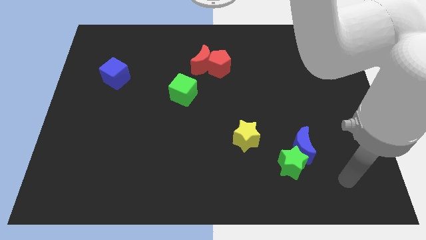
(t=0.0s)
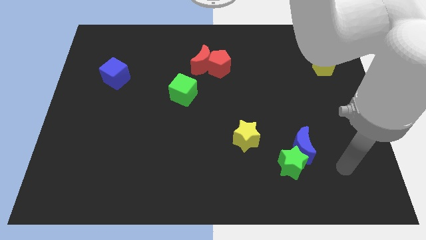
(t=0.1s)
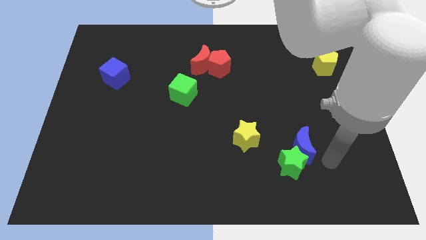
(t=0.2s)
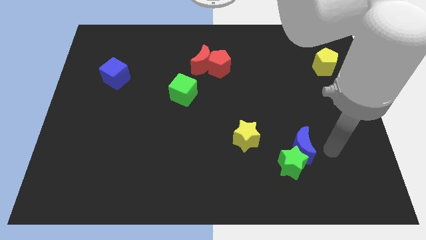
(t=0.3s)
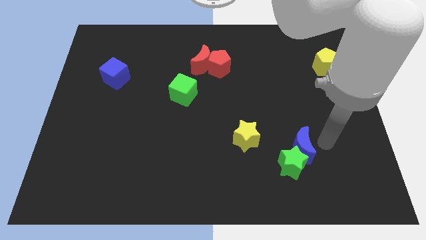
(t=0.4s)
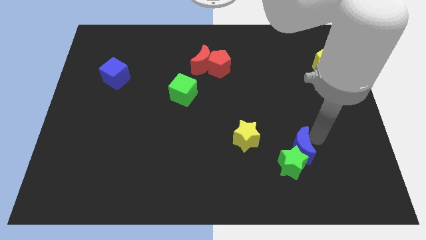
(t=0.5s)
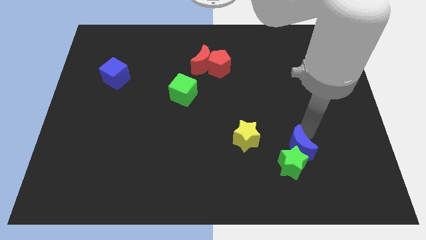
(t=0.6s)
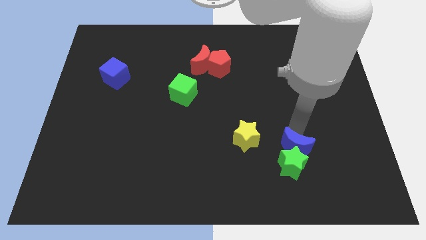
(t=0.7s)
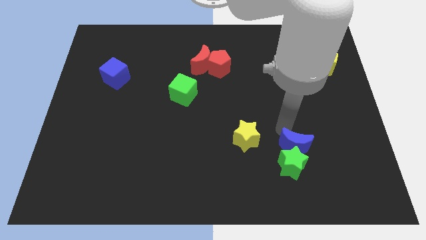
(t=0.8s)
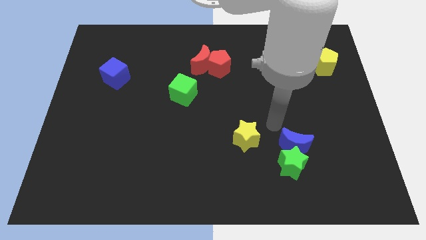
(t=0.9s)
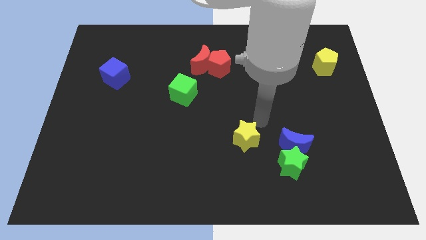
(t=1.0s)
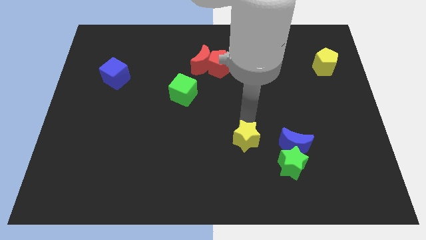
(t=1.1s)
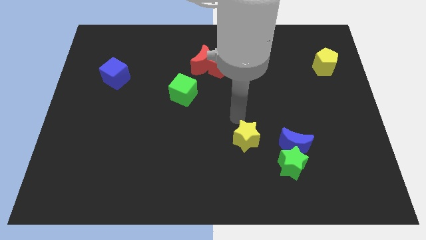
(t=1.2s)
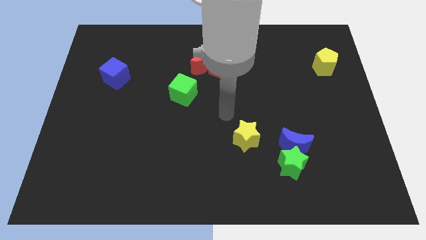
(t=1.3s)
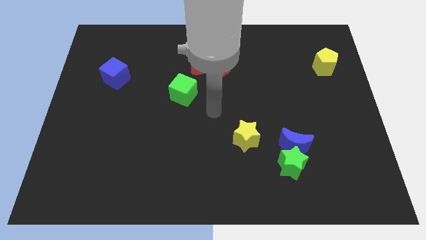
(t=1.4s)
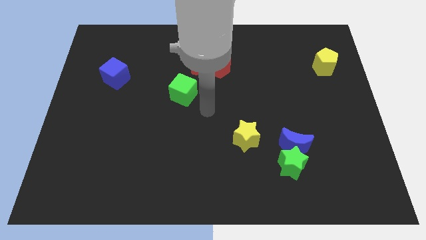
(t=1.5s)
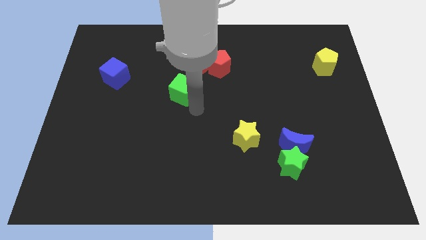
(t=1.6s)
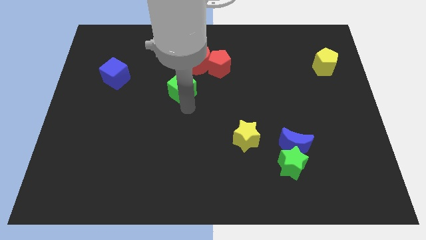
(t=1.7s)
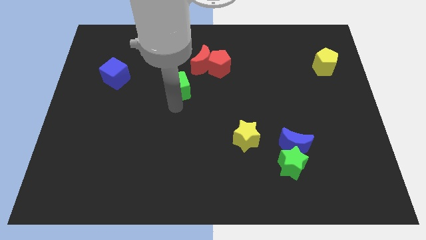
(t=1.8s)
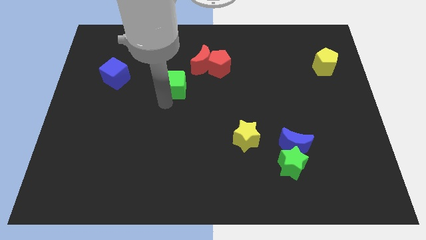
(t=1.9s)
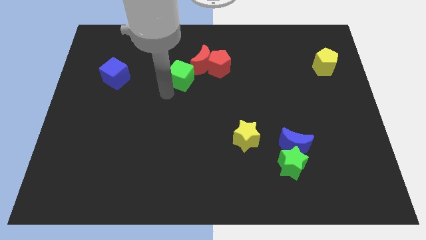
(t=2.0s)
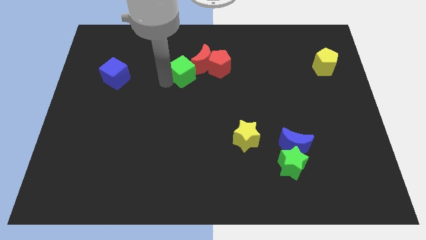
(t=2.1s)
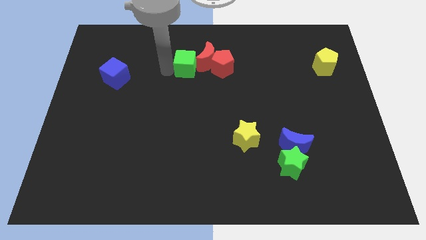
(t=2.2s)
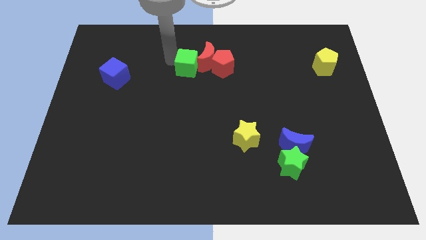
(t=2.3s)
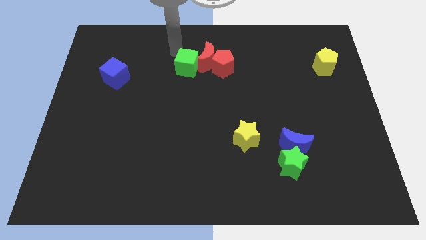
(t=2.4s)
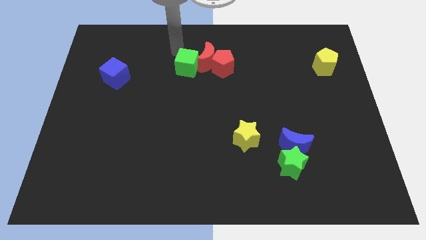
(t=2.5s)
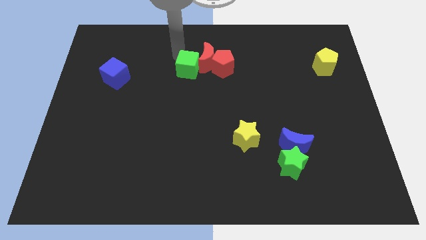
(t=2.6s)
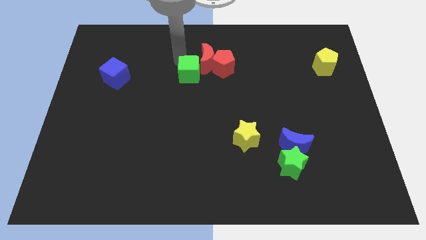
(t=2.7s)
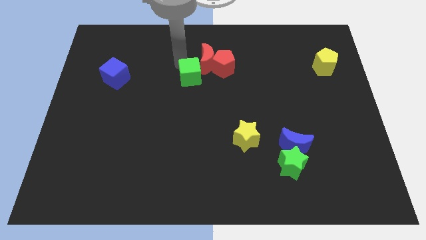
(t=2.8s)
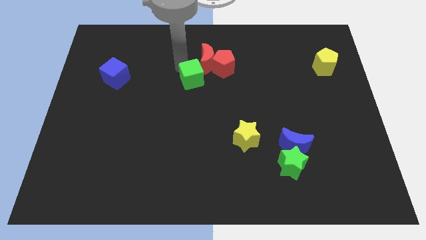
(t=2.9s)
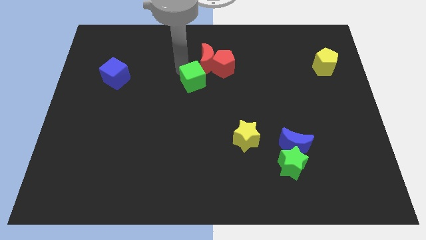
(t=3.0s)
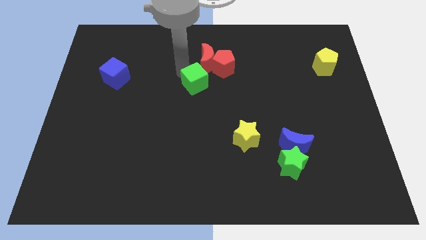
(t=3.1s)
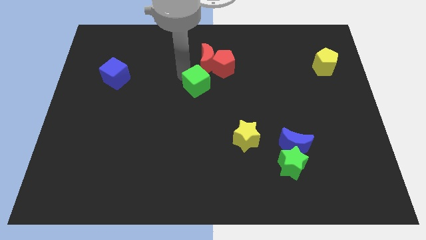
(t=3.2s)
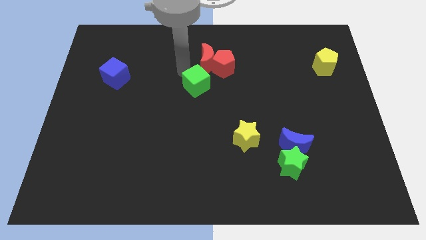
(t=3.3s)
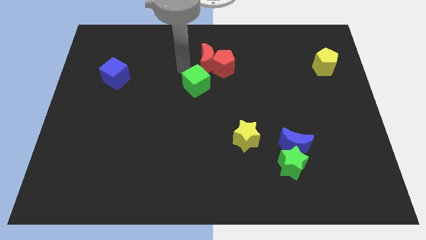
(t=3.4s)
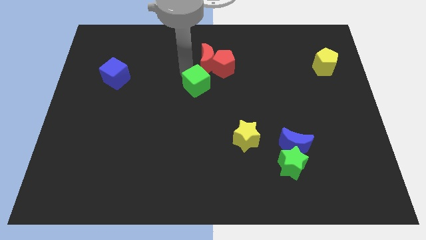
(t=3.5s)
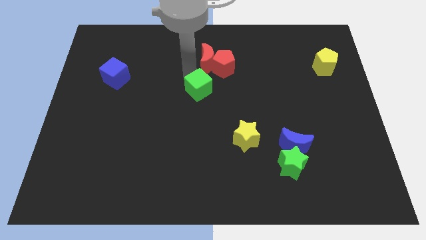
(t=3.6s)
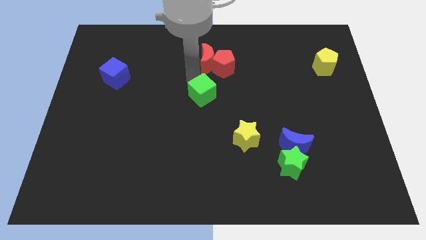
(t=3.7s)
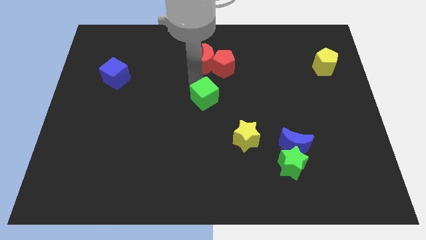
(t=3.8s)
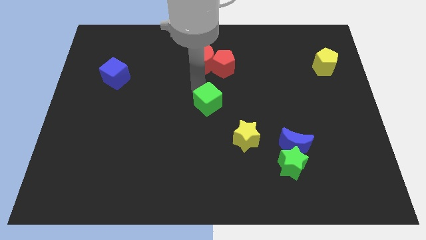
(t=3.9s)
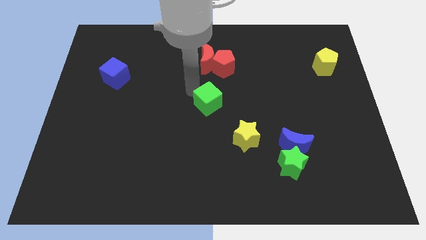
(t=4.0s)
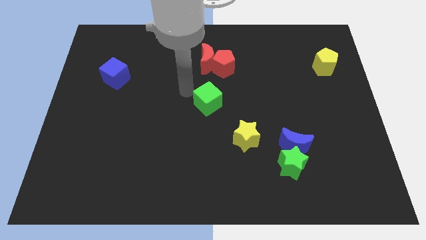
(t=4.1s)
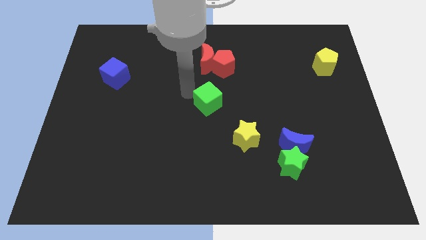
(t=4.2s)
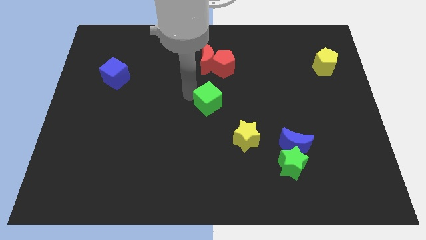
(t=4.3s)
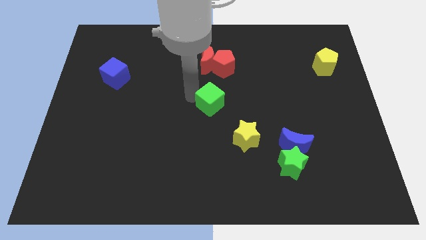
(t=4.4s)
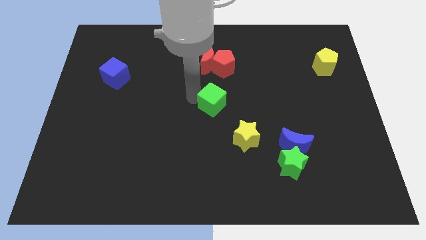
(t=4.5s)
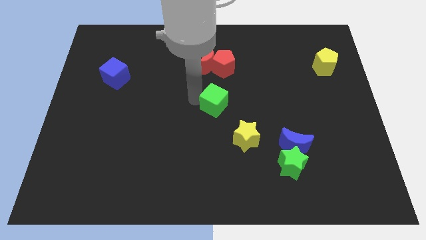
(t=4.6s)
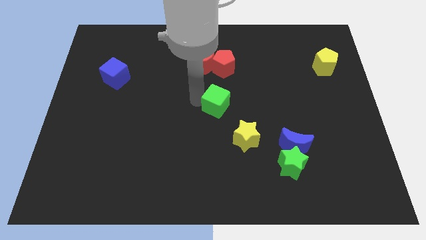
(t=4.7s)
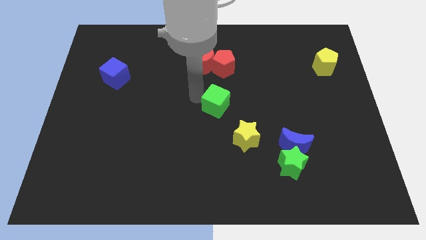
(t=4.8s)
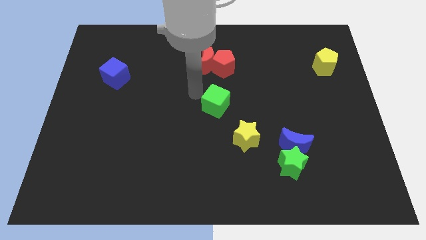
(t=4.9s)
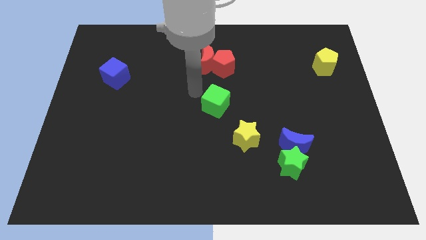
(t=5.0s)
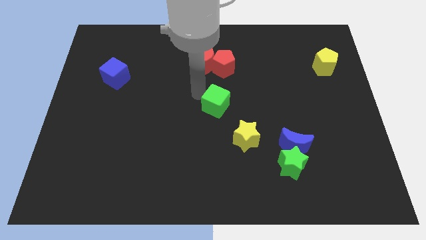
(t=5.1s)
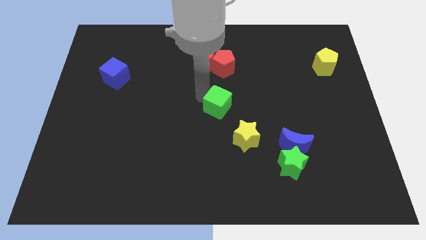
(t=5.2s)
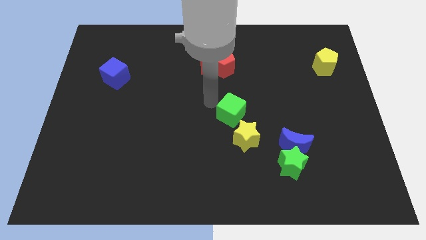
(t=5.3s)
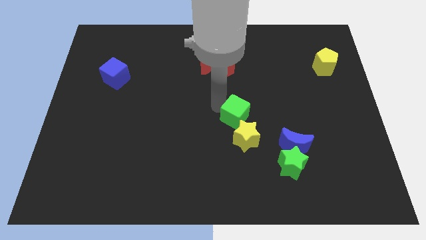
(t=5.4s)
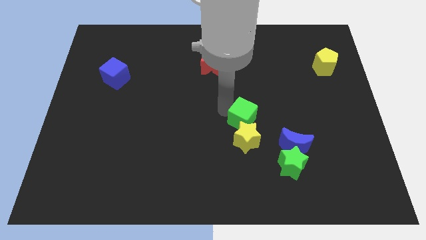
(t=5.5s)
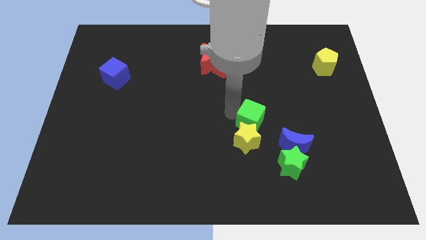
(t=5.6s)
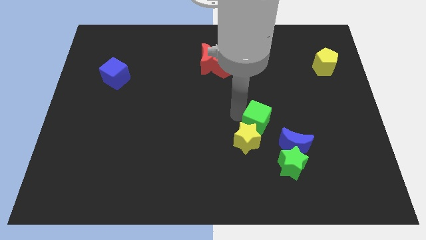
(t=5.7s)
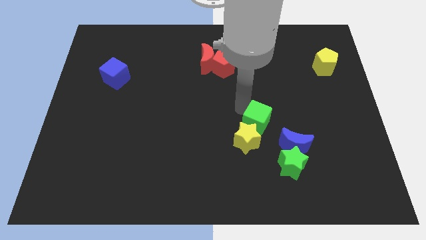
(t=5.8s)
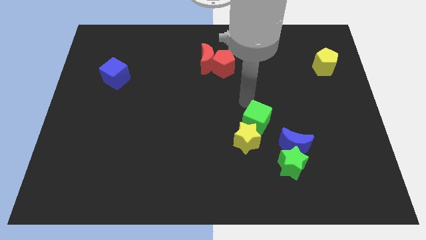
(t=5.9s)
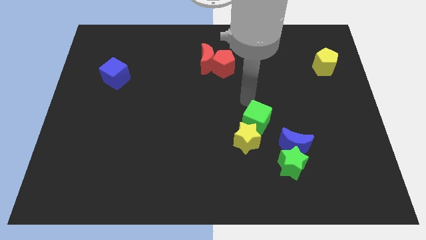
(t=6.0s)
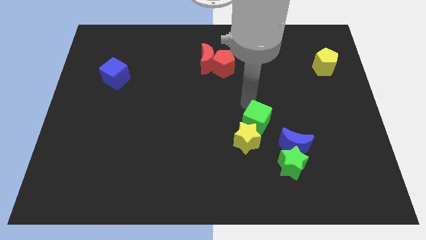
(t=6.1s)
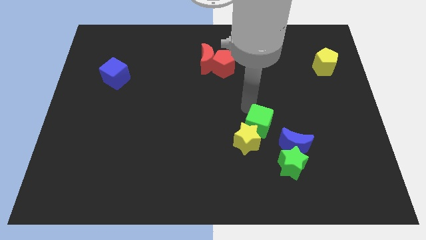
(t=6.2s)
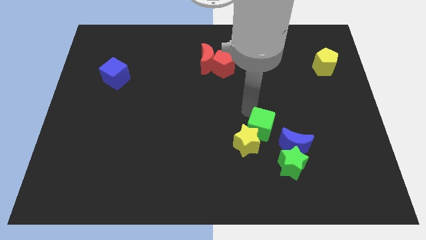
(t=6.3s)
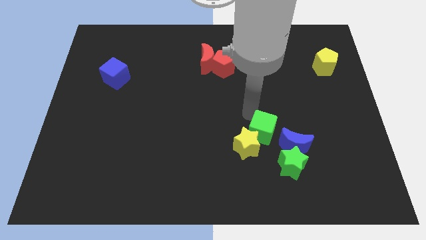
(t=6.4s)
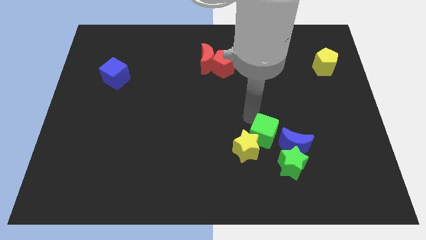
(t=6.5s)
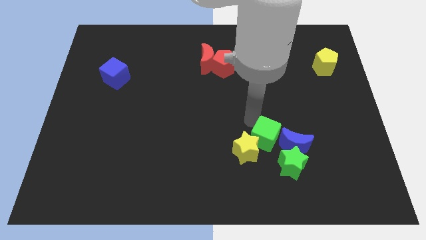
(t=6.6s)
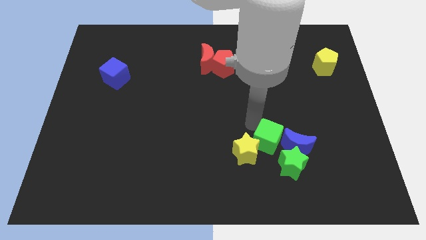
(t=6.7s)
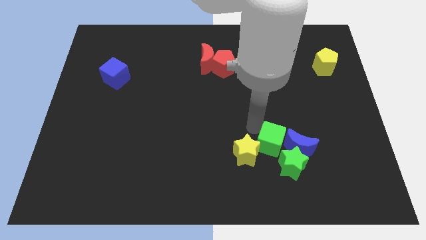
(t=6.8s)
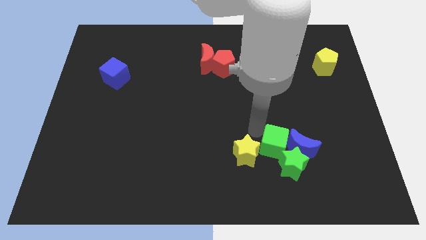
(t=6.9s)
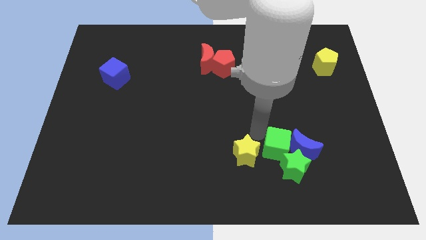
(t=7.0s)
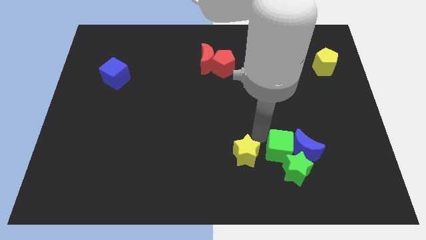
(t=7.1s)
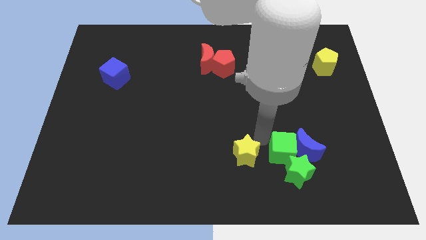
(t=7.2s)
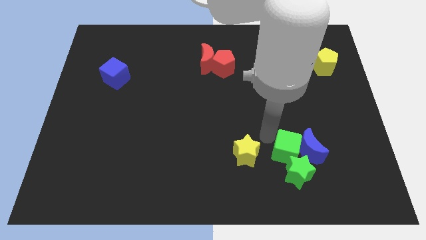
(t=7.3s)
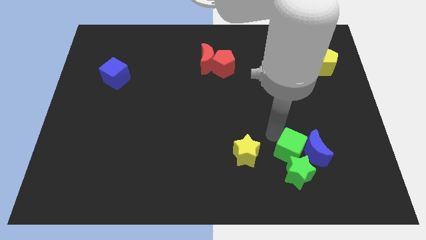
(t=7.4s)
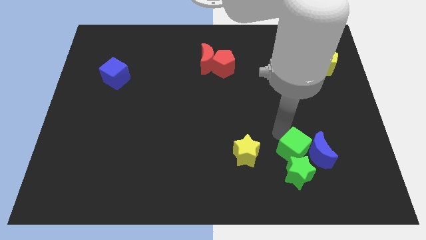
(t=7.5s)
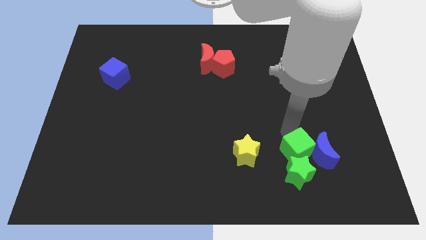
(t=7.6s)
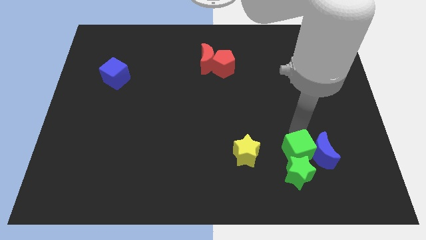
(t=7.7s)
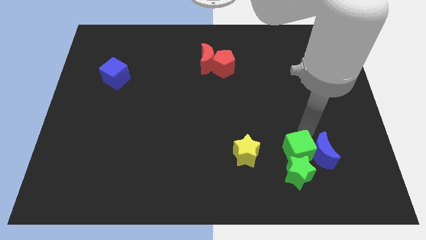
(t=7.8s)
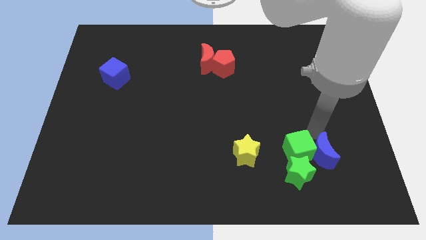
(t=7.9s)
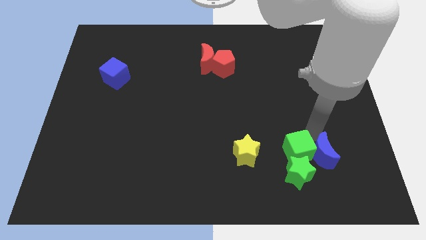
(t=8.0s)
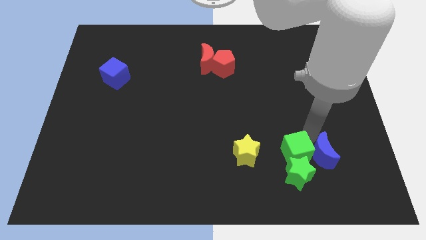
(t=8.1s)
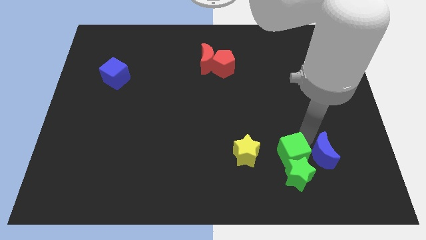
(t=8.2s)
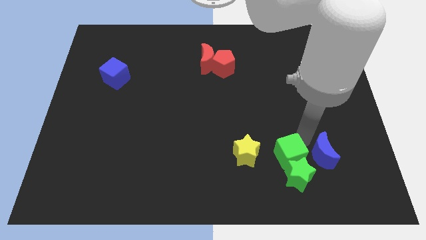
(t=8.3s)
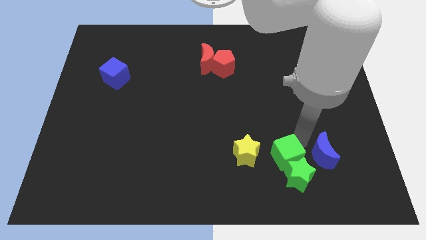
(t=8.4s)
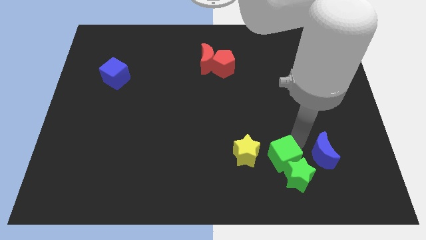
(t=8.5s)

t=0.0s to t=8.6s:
put the green cube to the bottom right of the yellow star
